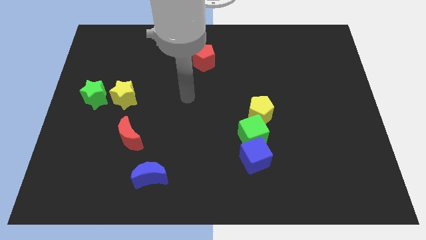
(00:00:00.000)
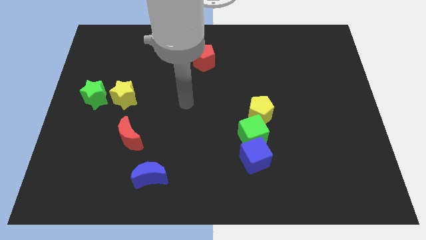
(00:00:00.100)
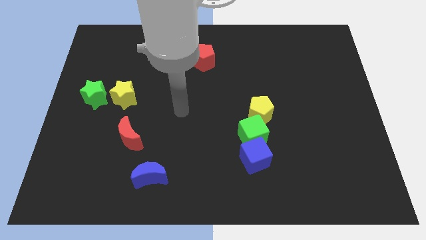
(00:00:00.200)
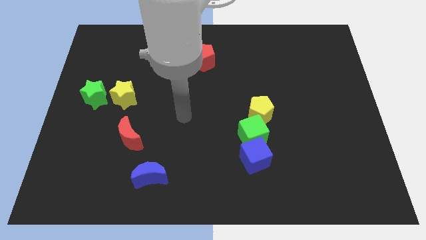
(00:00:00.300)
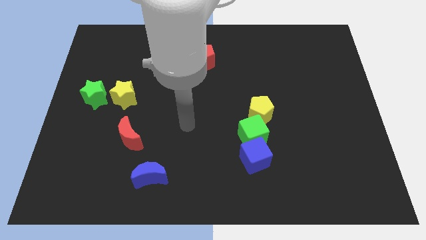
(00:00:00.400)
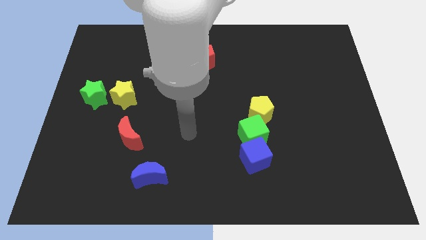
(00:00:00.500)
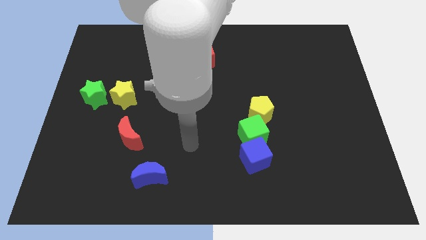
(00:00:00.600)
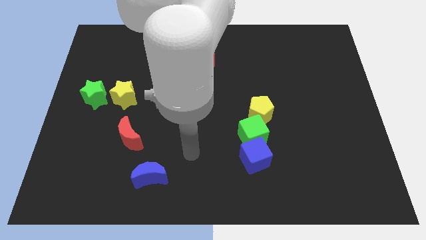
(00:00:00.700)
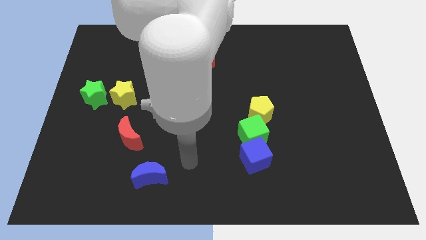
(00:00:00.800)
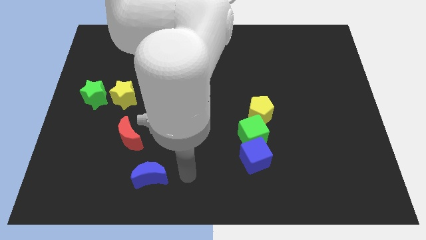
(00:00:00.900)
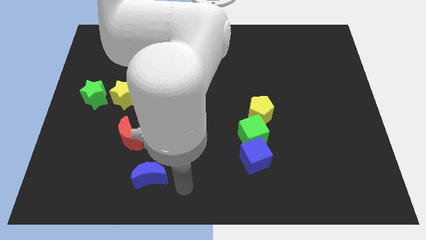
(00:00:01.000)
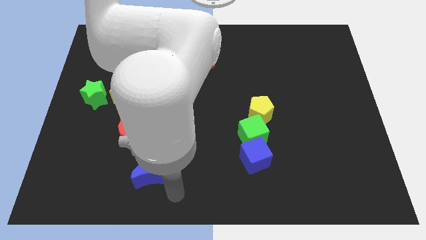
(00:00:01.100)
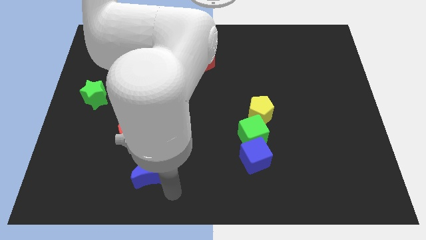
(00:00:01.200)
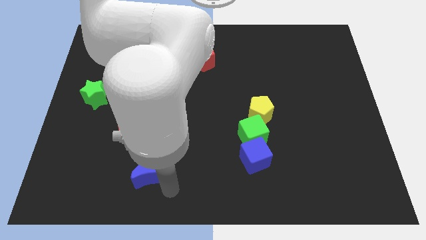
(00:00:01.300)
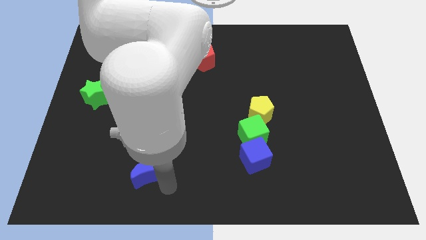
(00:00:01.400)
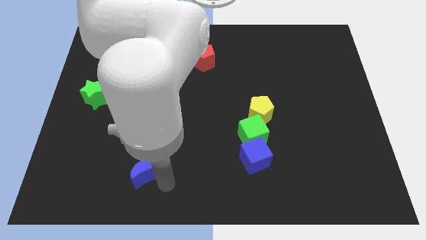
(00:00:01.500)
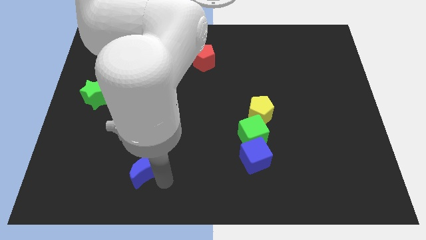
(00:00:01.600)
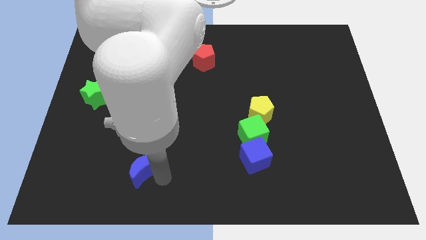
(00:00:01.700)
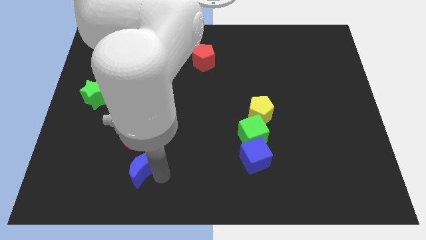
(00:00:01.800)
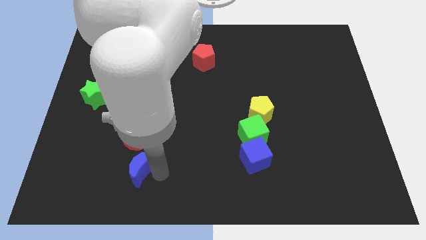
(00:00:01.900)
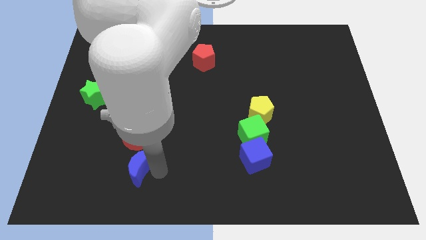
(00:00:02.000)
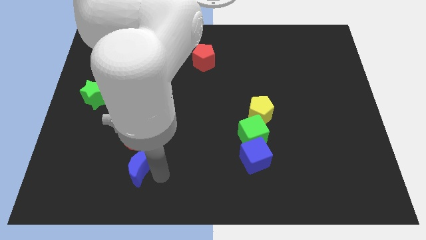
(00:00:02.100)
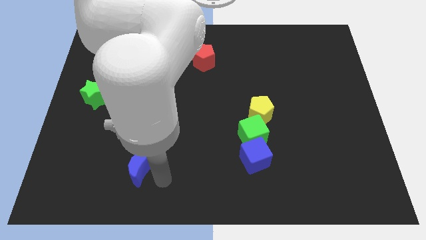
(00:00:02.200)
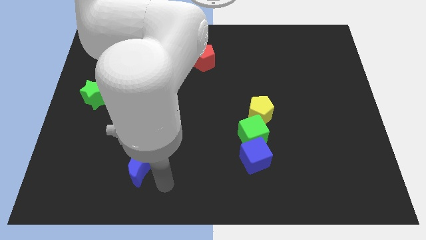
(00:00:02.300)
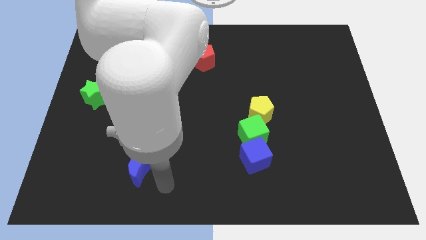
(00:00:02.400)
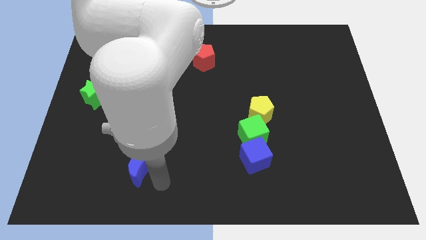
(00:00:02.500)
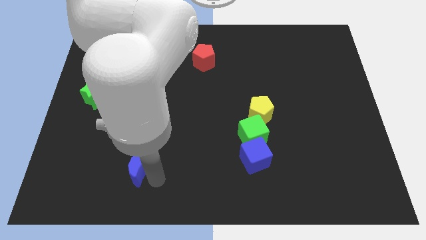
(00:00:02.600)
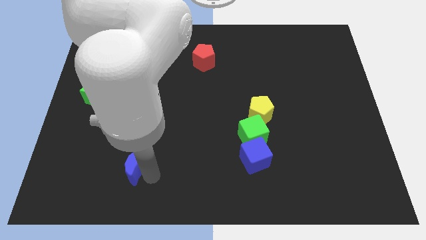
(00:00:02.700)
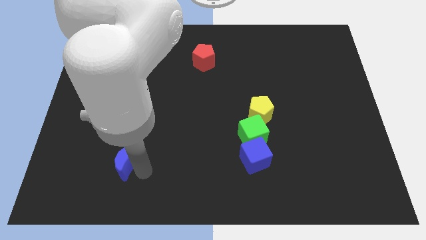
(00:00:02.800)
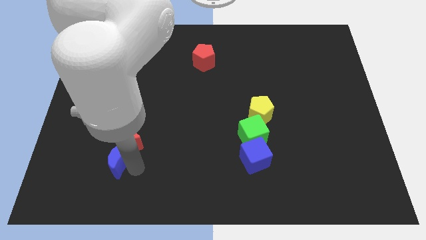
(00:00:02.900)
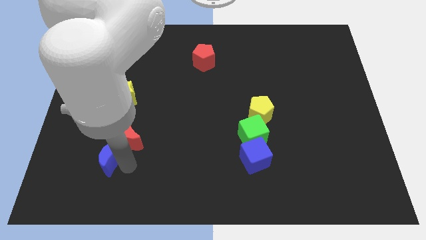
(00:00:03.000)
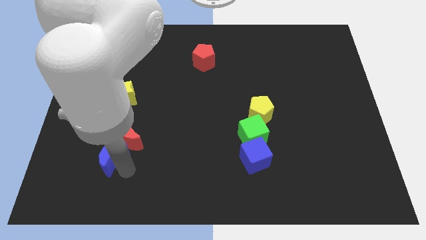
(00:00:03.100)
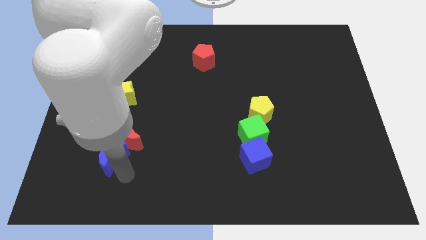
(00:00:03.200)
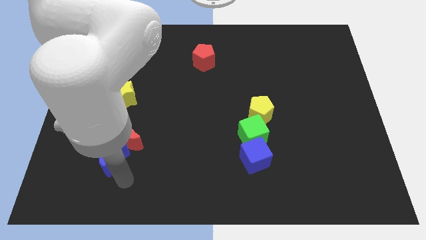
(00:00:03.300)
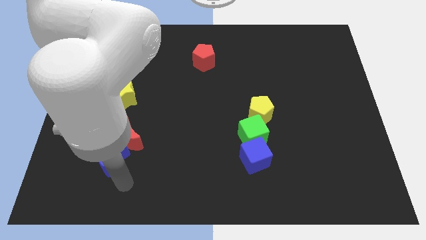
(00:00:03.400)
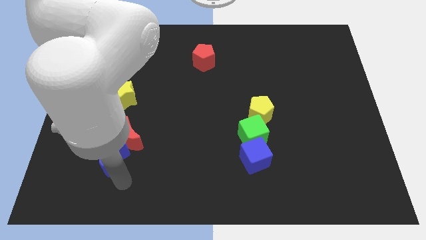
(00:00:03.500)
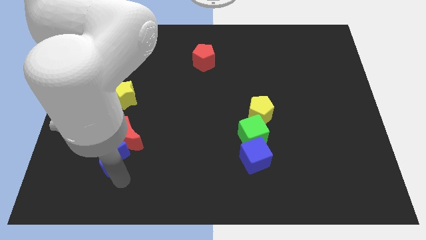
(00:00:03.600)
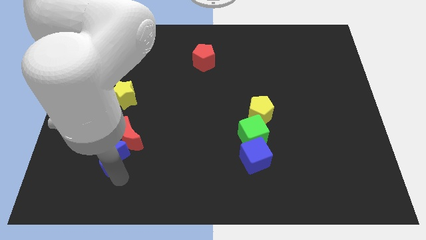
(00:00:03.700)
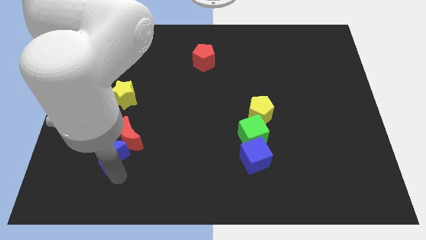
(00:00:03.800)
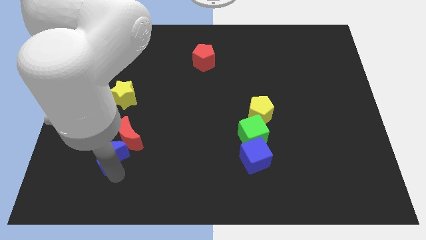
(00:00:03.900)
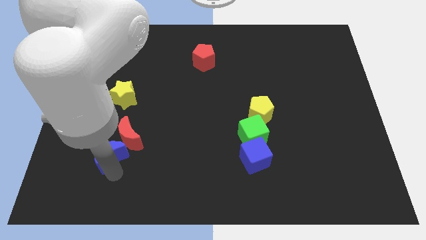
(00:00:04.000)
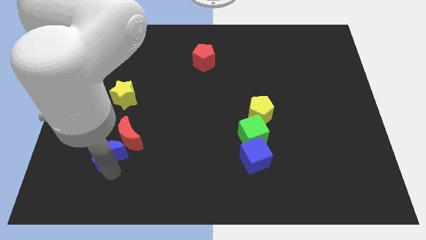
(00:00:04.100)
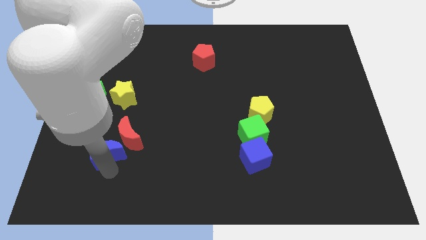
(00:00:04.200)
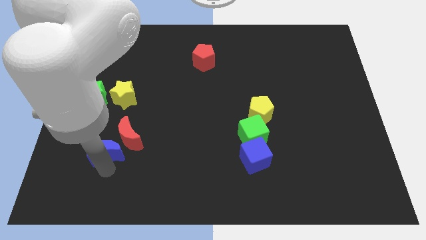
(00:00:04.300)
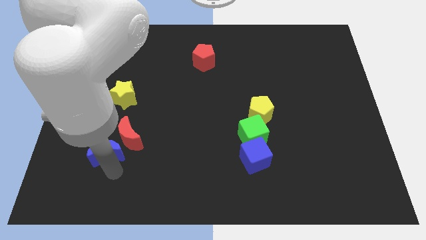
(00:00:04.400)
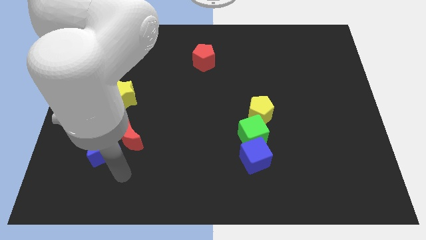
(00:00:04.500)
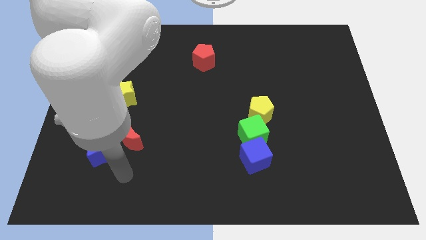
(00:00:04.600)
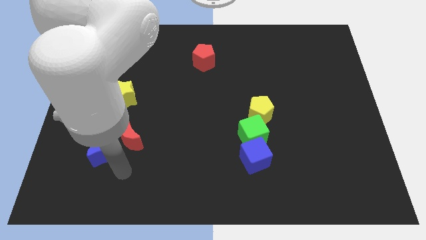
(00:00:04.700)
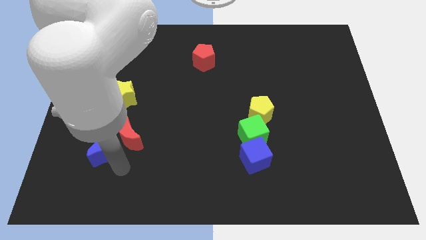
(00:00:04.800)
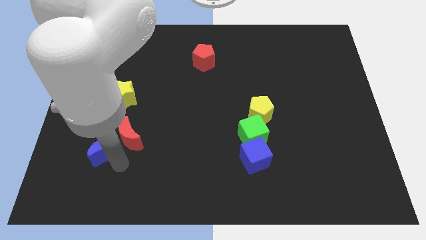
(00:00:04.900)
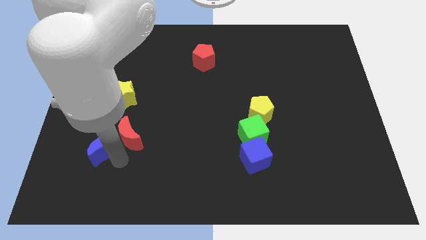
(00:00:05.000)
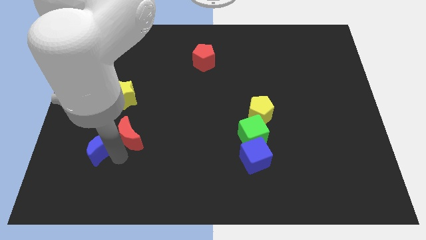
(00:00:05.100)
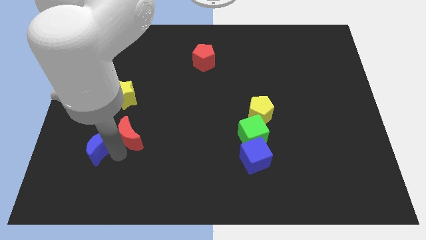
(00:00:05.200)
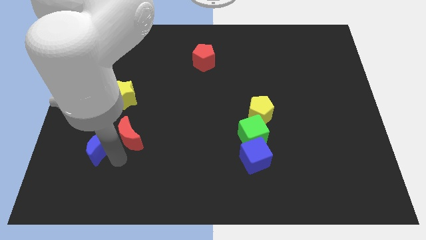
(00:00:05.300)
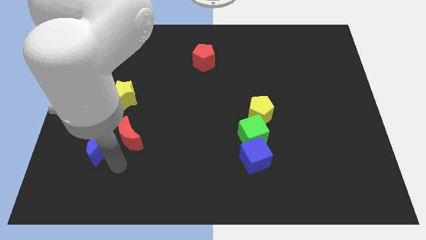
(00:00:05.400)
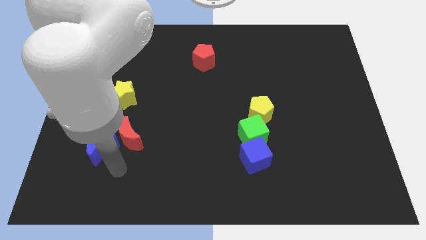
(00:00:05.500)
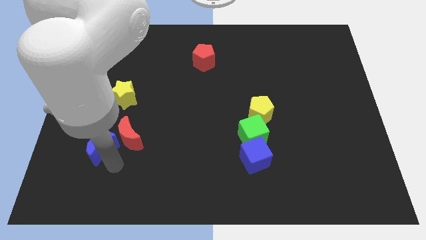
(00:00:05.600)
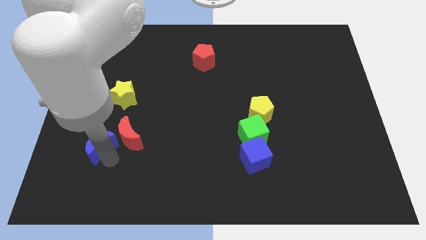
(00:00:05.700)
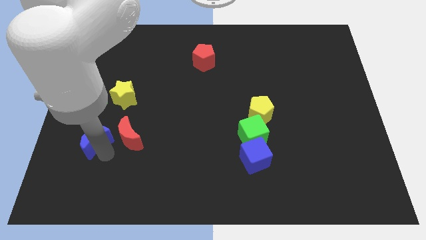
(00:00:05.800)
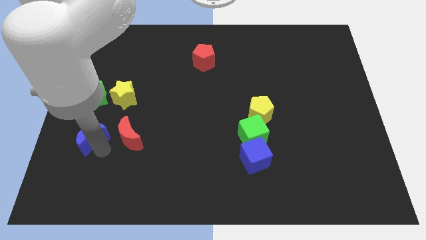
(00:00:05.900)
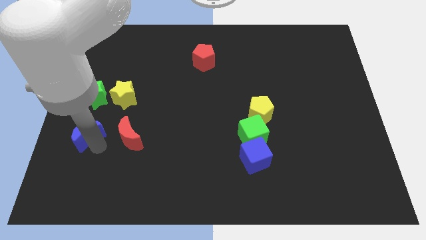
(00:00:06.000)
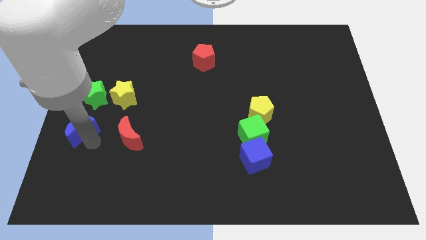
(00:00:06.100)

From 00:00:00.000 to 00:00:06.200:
move the blue moon to the left side

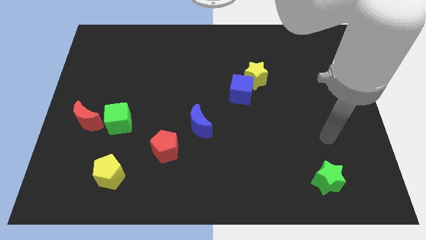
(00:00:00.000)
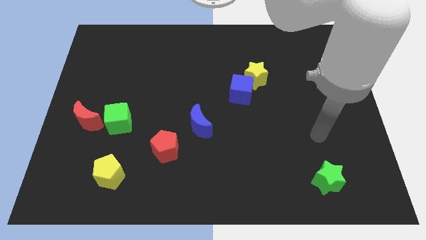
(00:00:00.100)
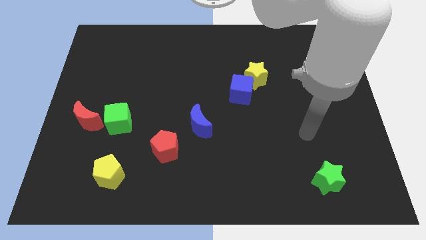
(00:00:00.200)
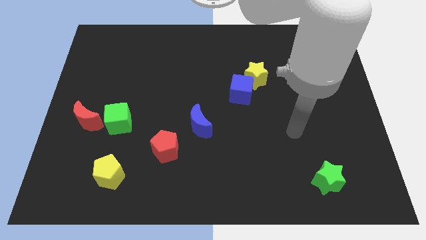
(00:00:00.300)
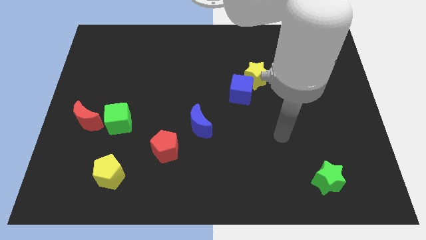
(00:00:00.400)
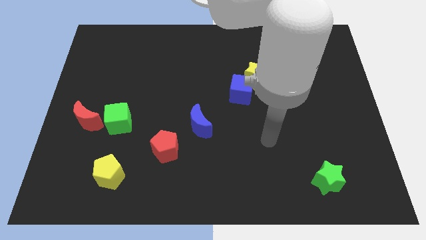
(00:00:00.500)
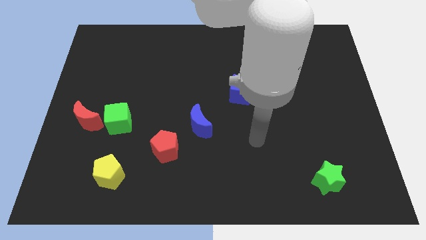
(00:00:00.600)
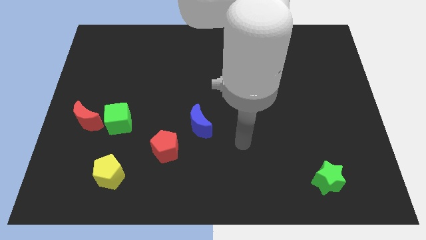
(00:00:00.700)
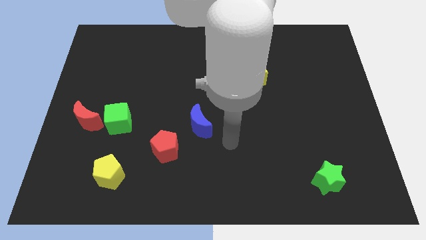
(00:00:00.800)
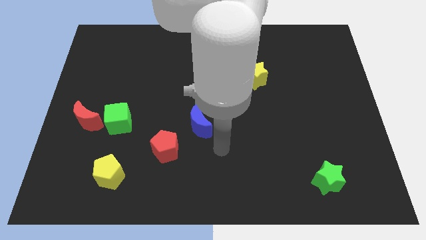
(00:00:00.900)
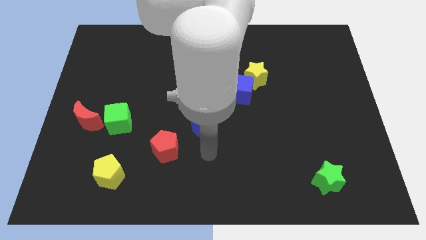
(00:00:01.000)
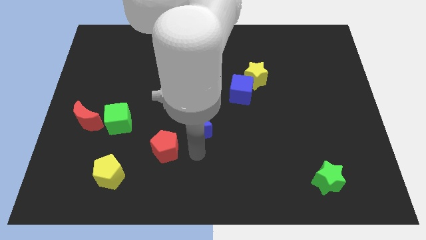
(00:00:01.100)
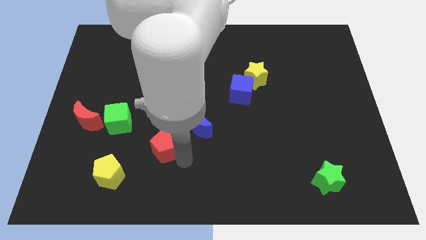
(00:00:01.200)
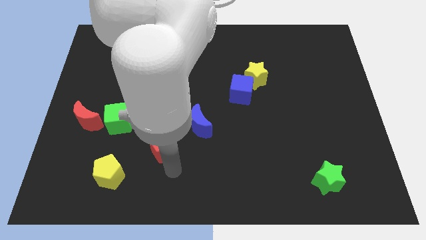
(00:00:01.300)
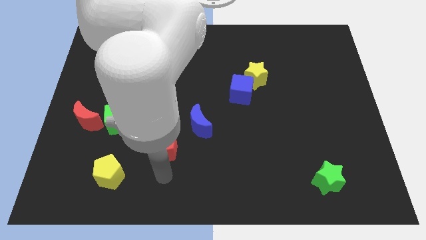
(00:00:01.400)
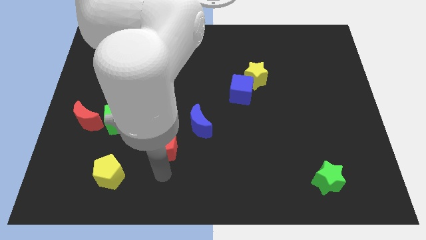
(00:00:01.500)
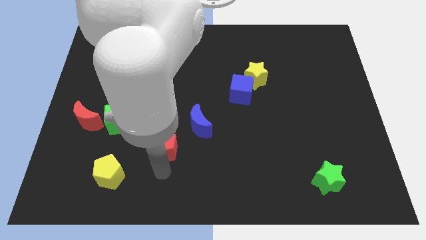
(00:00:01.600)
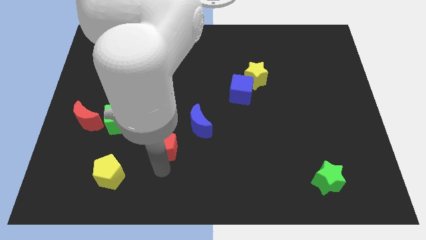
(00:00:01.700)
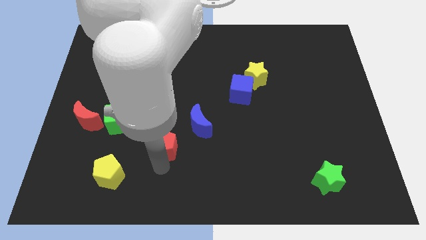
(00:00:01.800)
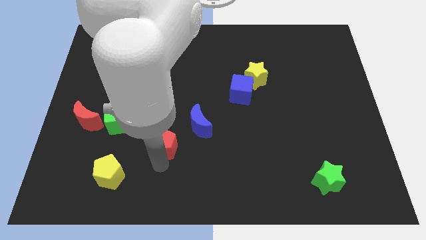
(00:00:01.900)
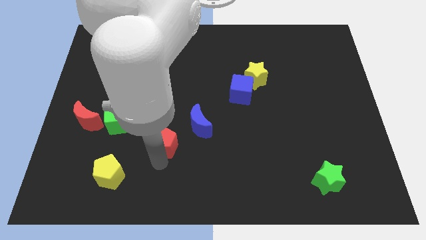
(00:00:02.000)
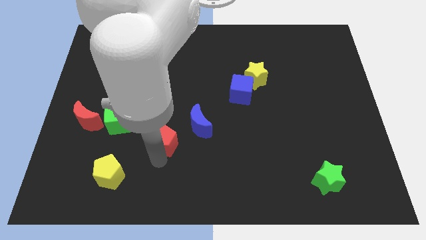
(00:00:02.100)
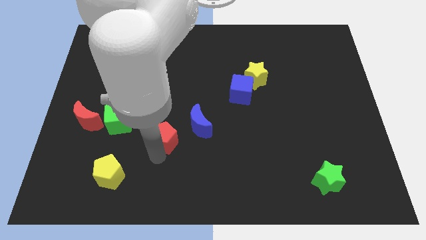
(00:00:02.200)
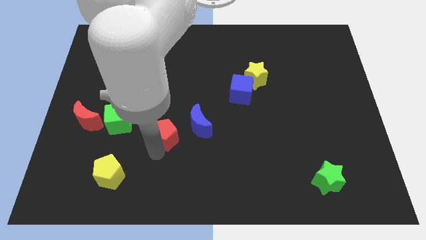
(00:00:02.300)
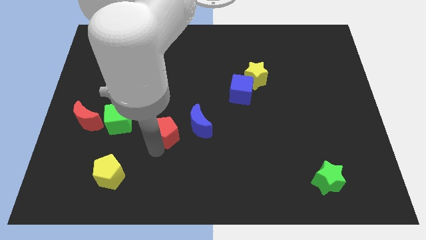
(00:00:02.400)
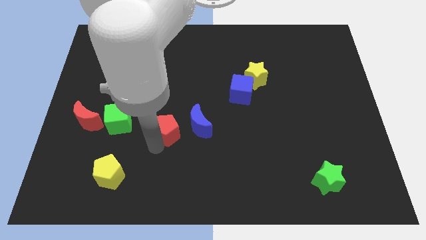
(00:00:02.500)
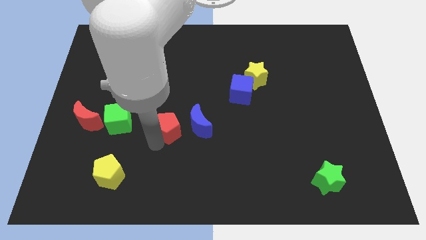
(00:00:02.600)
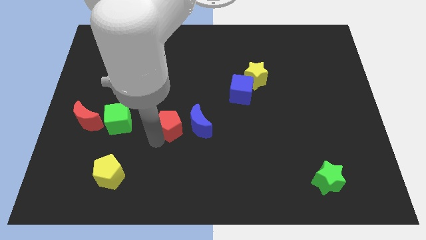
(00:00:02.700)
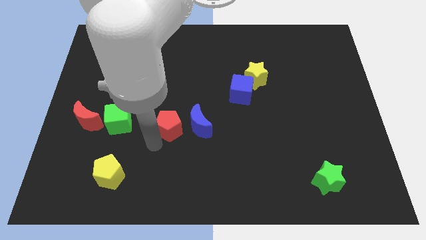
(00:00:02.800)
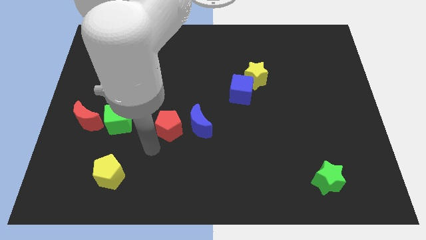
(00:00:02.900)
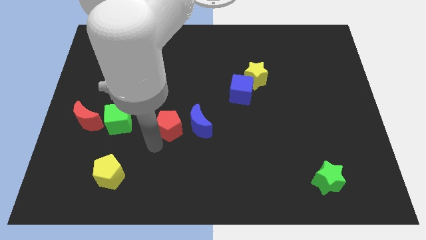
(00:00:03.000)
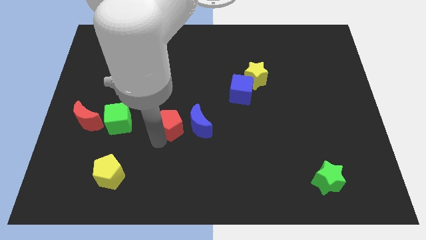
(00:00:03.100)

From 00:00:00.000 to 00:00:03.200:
slide the red pentagon to the center
